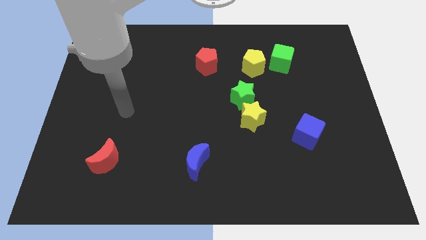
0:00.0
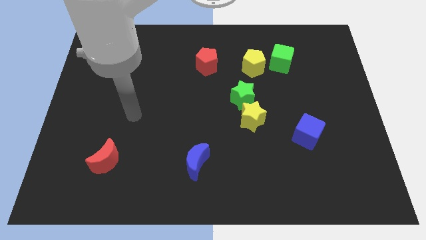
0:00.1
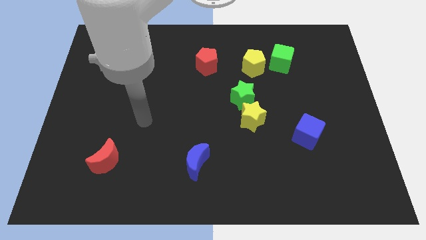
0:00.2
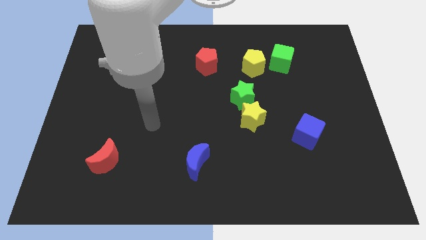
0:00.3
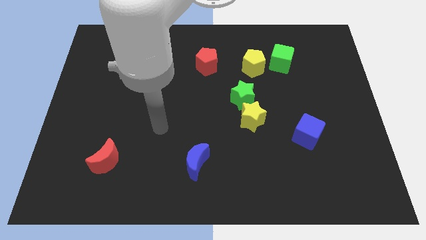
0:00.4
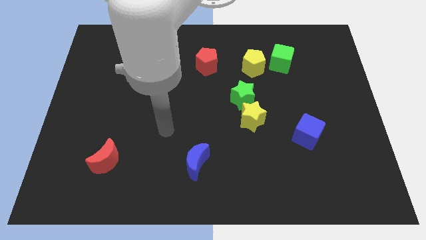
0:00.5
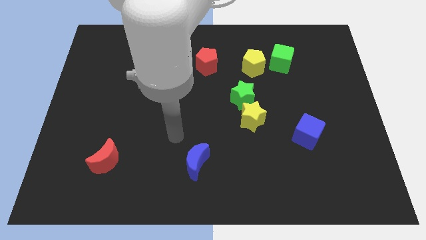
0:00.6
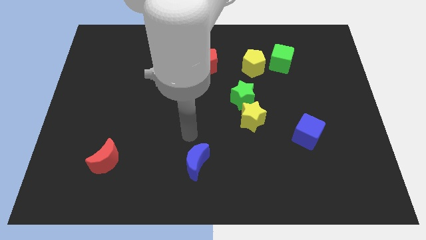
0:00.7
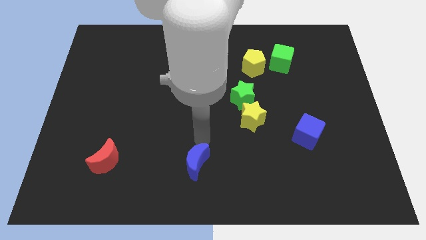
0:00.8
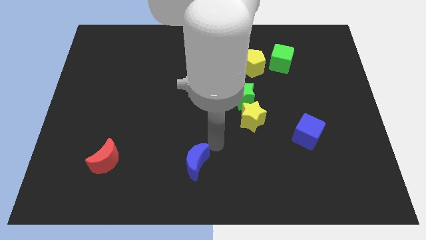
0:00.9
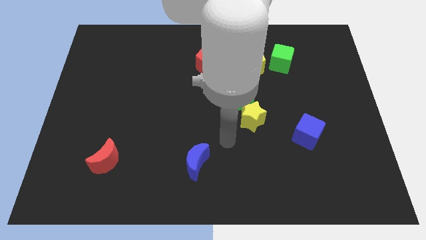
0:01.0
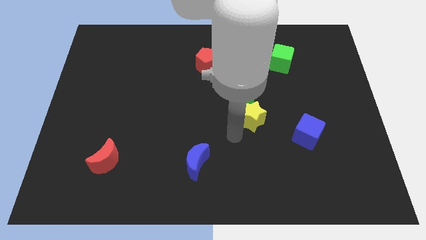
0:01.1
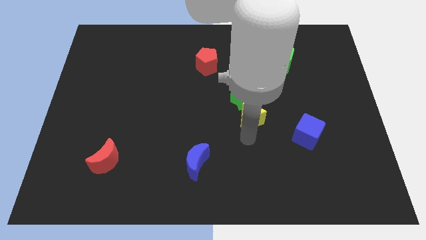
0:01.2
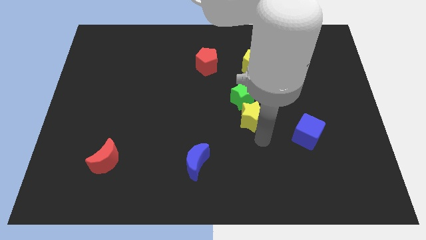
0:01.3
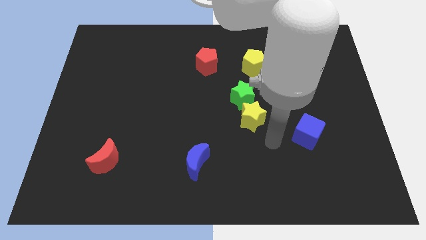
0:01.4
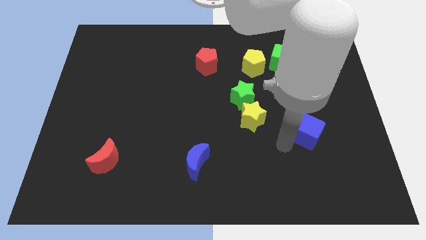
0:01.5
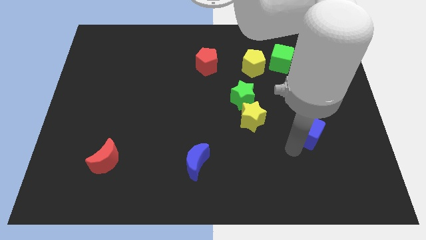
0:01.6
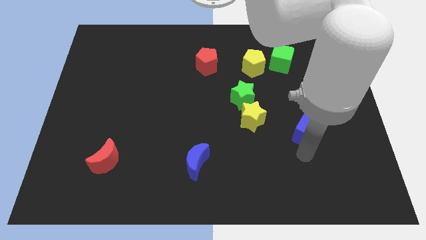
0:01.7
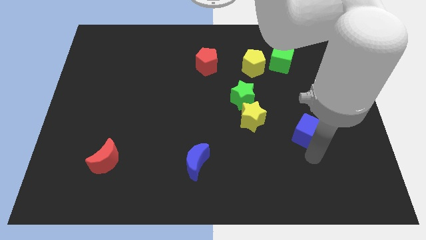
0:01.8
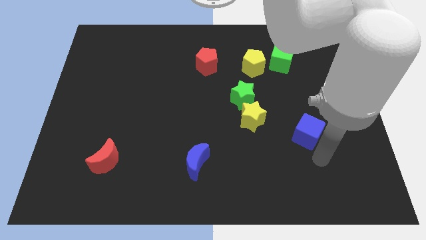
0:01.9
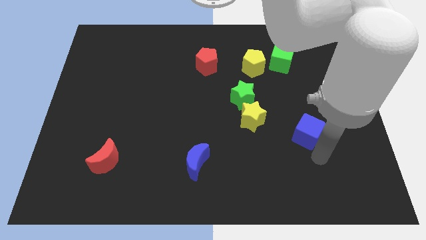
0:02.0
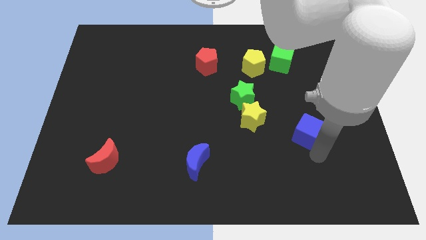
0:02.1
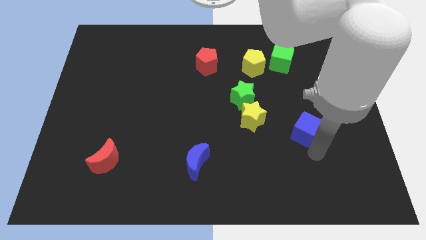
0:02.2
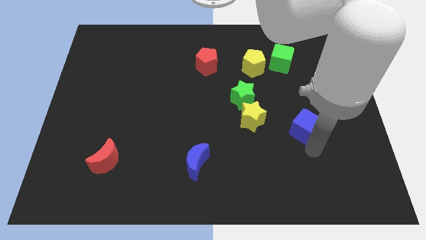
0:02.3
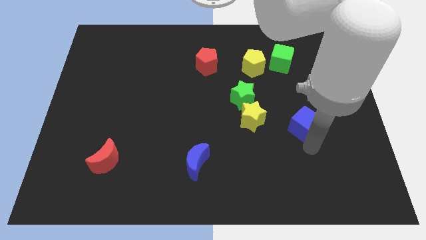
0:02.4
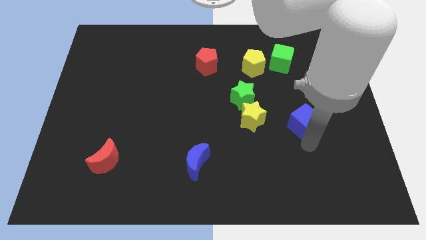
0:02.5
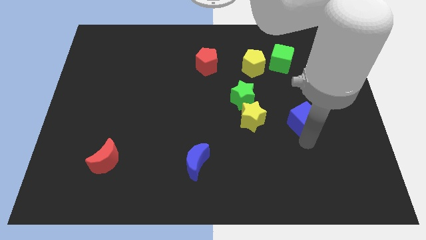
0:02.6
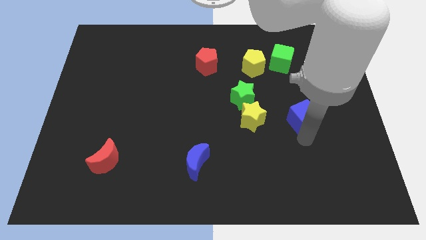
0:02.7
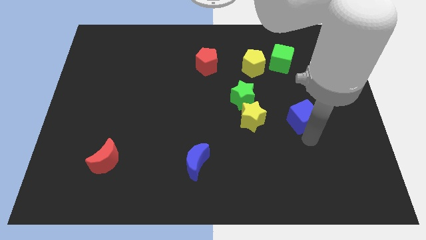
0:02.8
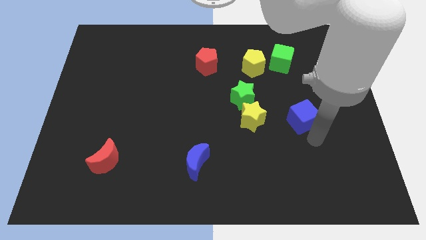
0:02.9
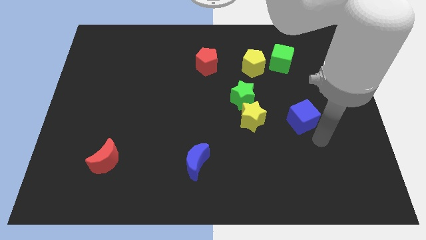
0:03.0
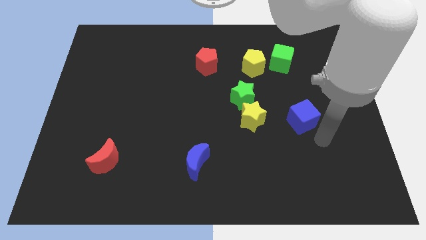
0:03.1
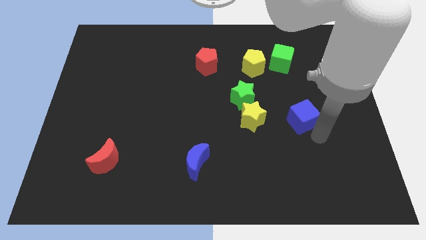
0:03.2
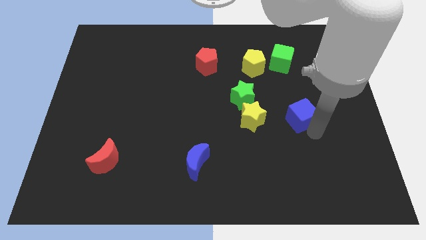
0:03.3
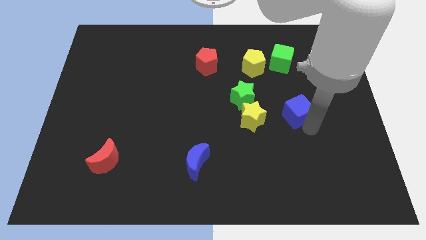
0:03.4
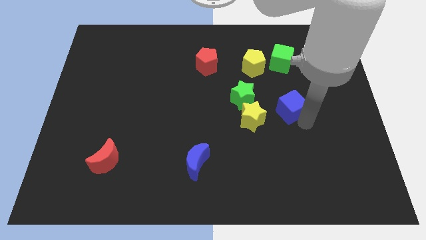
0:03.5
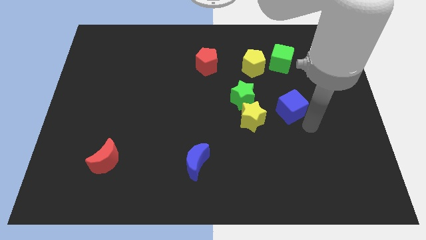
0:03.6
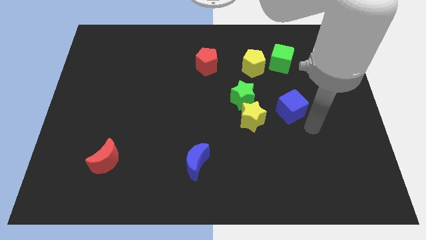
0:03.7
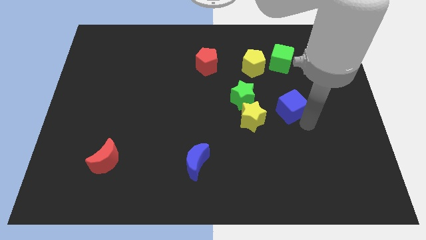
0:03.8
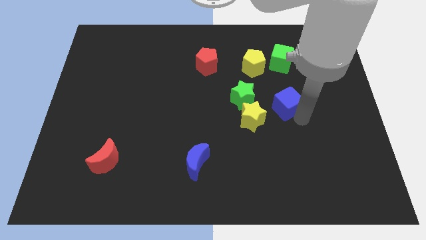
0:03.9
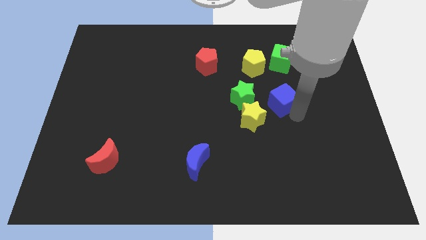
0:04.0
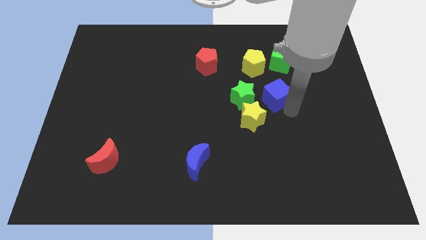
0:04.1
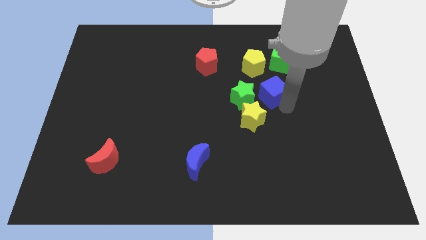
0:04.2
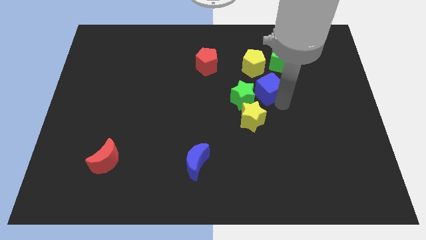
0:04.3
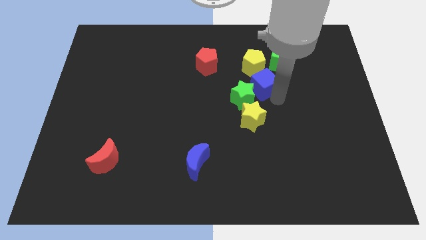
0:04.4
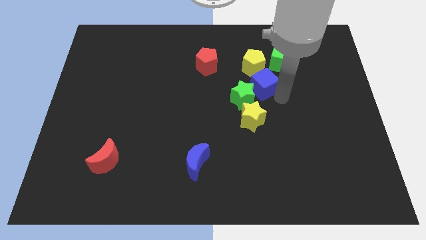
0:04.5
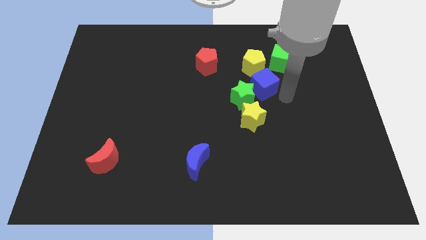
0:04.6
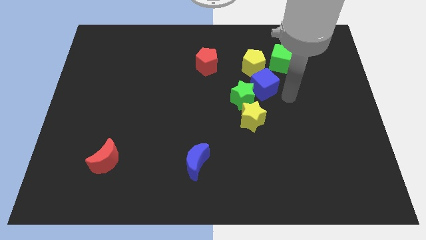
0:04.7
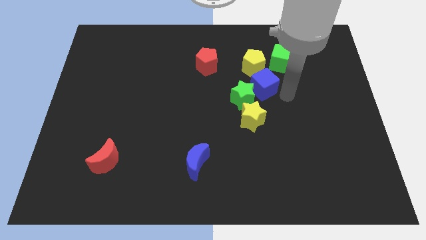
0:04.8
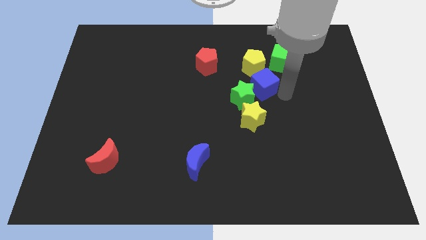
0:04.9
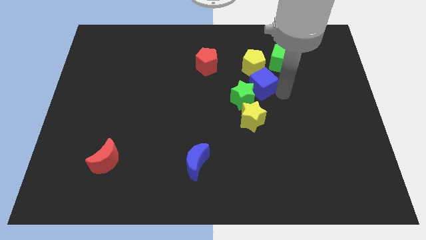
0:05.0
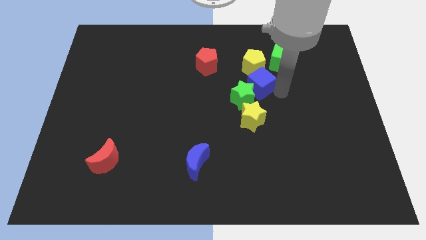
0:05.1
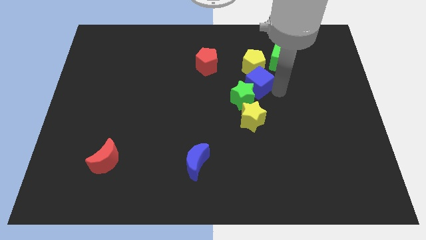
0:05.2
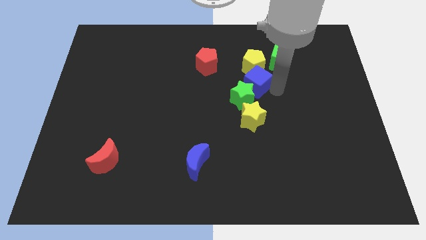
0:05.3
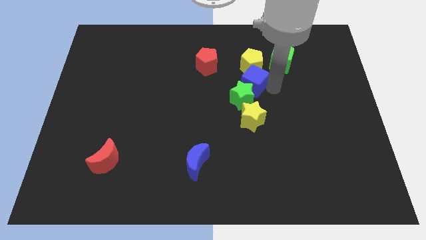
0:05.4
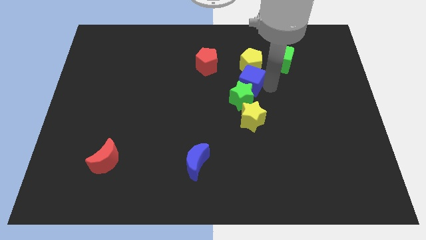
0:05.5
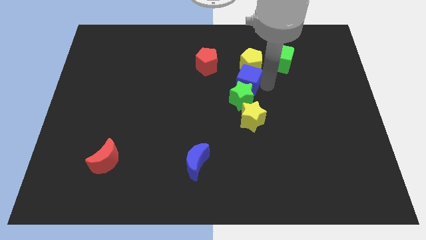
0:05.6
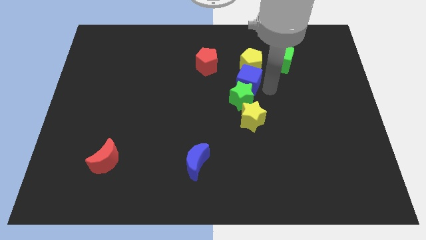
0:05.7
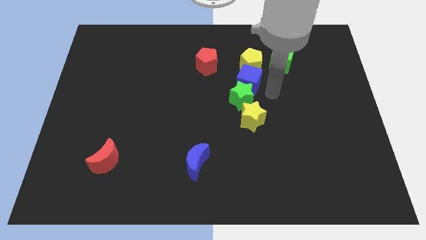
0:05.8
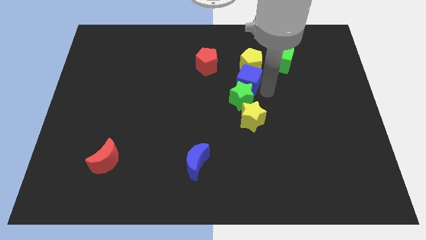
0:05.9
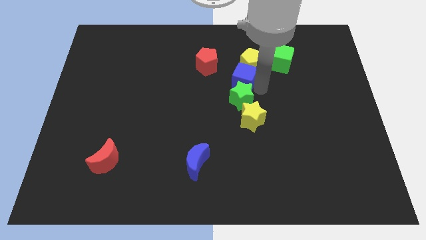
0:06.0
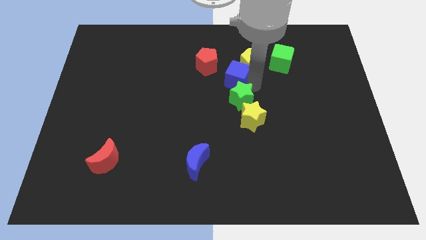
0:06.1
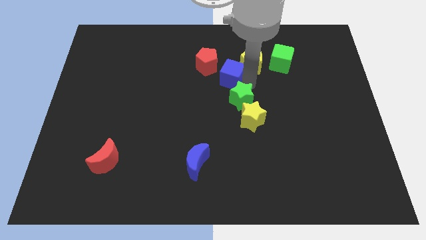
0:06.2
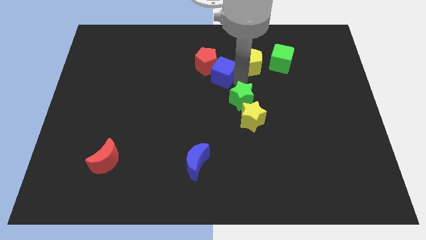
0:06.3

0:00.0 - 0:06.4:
put the blue cube next to the red pentagon
